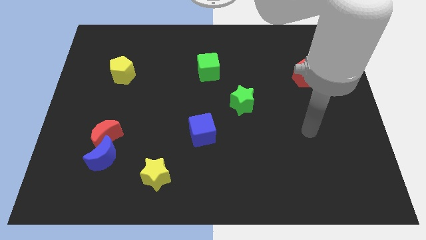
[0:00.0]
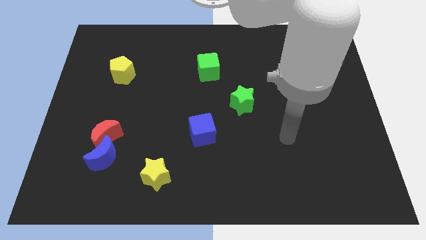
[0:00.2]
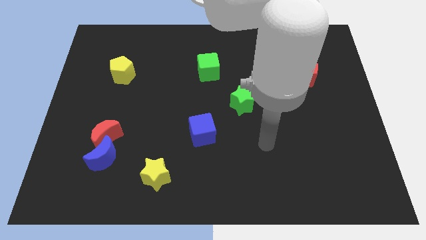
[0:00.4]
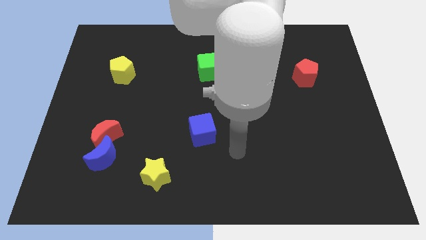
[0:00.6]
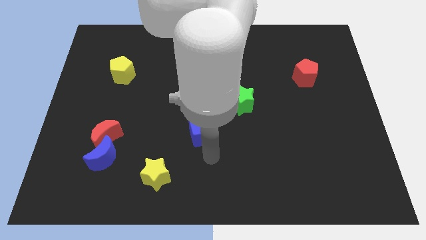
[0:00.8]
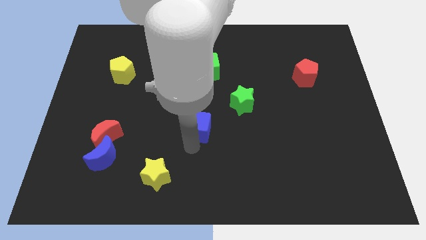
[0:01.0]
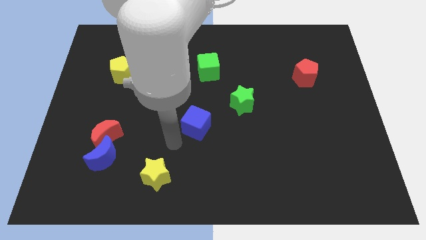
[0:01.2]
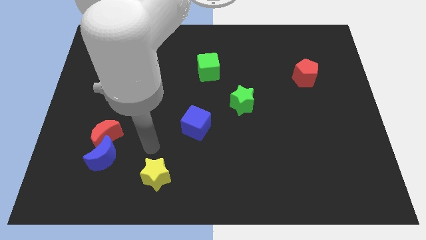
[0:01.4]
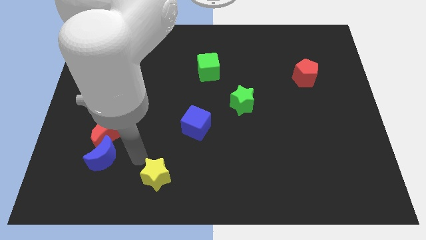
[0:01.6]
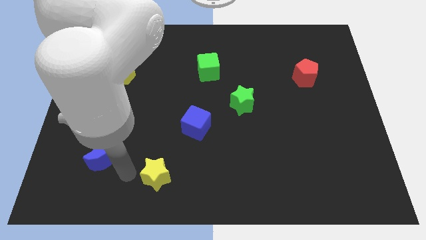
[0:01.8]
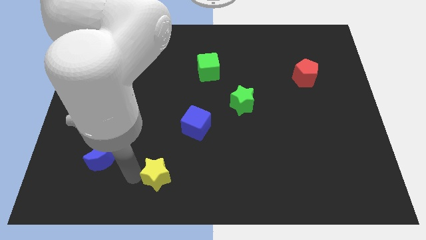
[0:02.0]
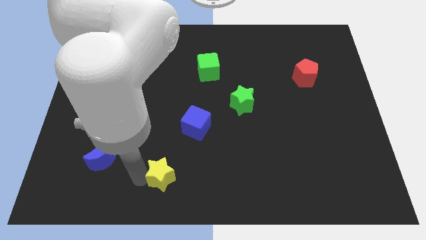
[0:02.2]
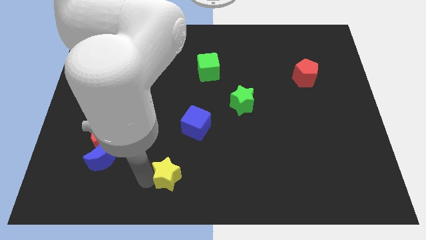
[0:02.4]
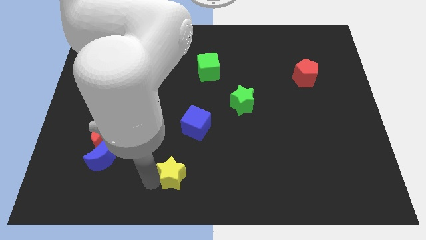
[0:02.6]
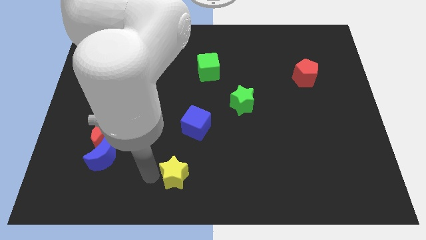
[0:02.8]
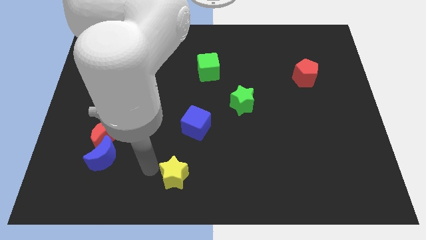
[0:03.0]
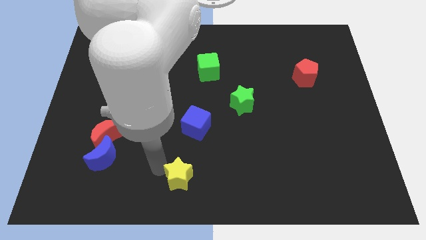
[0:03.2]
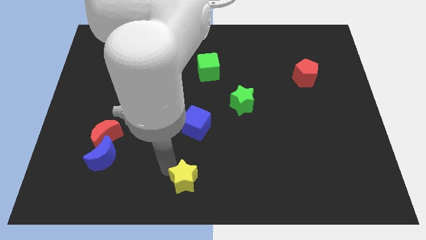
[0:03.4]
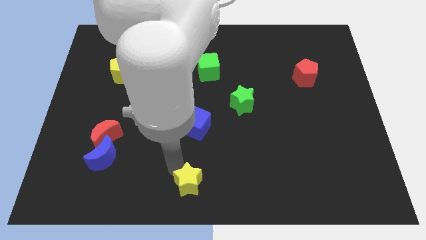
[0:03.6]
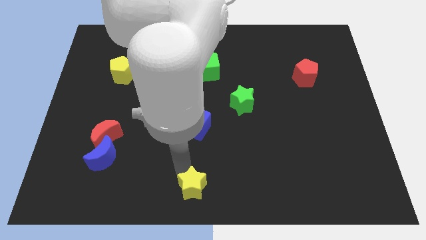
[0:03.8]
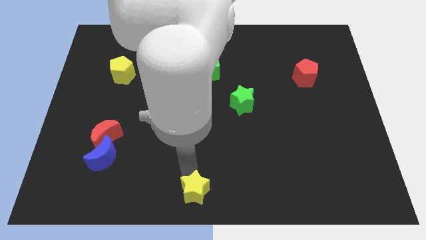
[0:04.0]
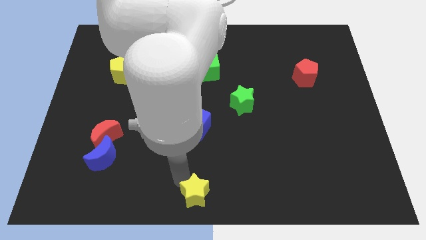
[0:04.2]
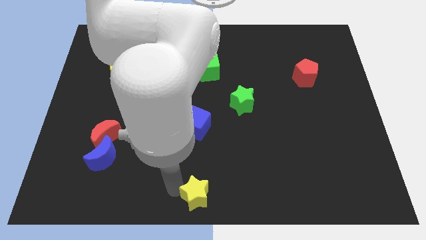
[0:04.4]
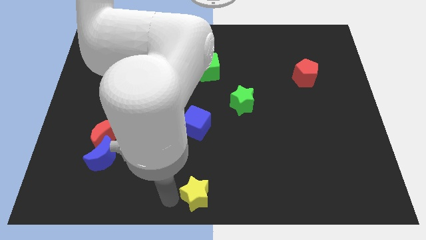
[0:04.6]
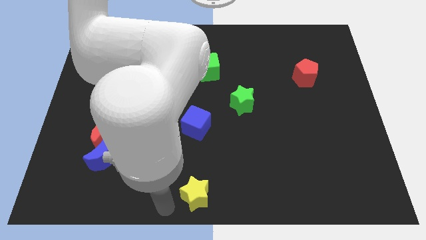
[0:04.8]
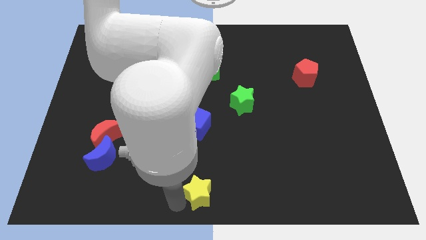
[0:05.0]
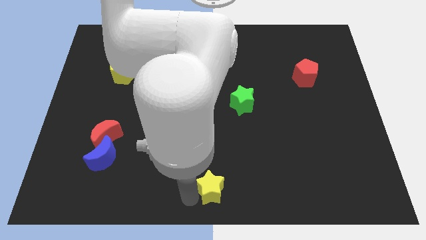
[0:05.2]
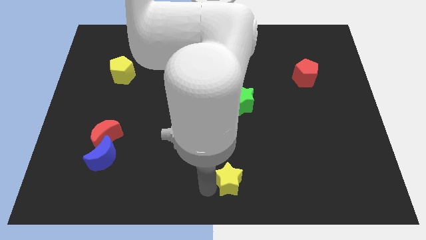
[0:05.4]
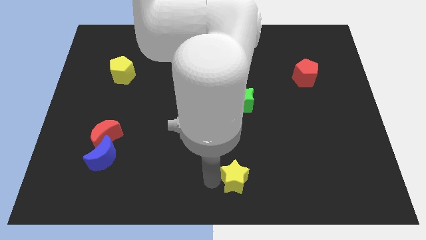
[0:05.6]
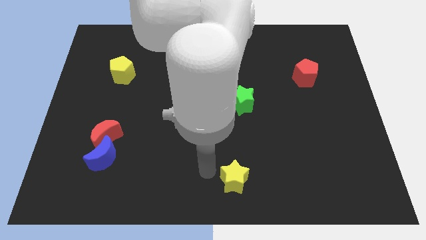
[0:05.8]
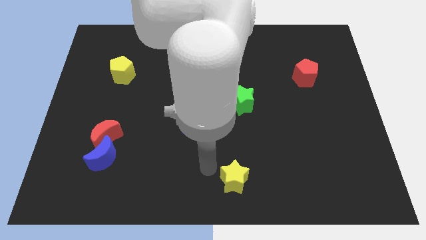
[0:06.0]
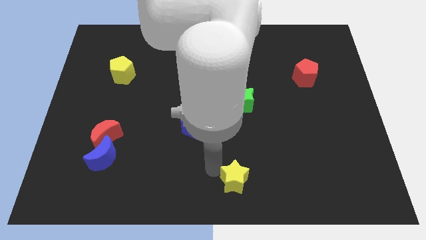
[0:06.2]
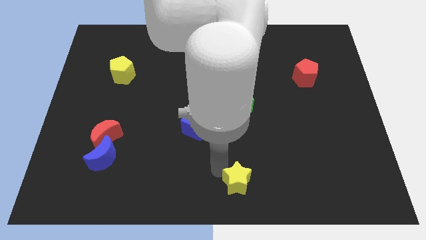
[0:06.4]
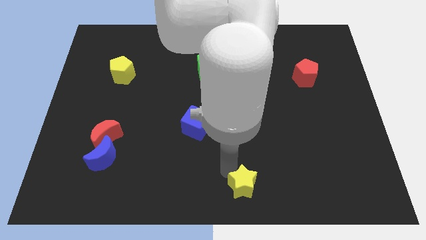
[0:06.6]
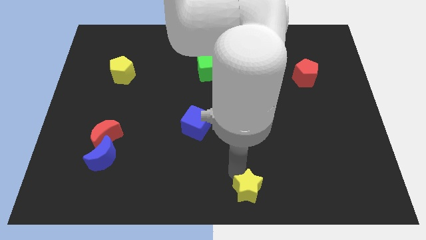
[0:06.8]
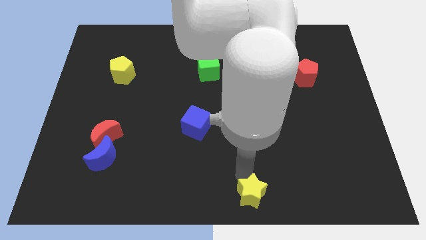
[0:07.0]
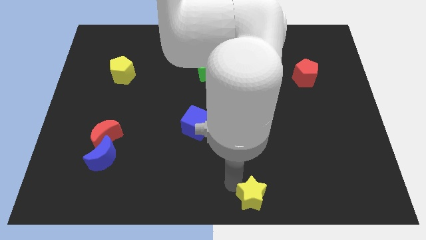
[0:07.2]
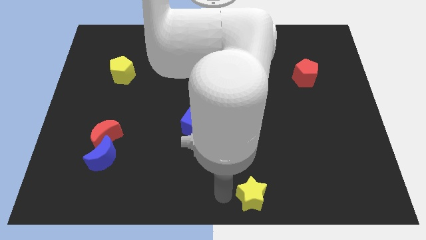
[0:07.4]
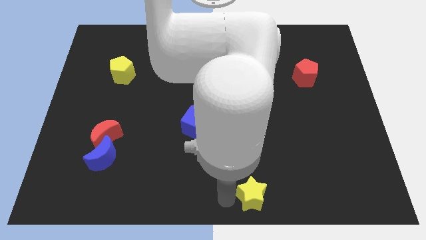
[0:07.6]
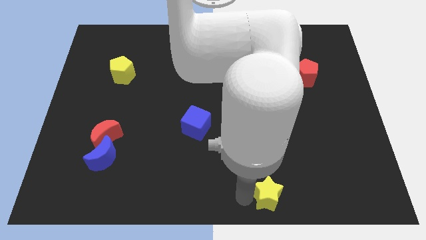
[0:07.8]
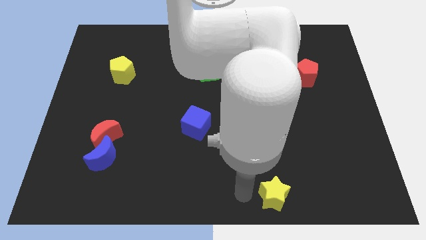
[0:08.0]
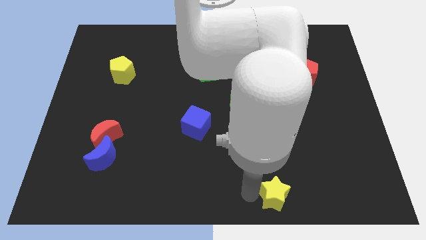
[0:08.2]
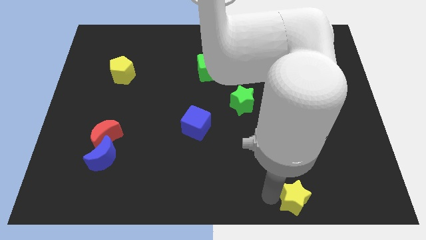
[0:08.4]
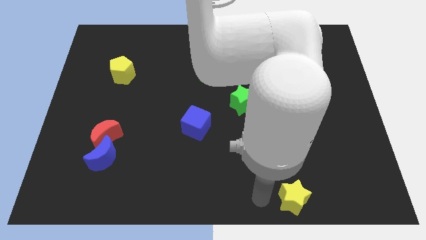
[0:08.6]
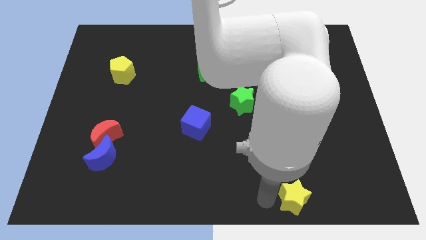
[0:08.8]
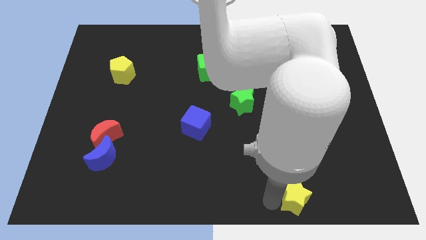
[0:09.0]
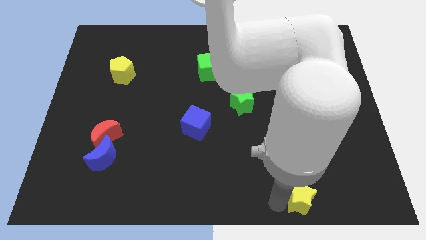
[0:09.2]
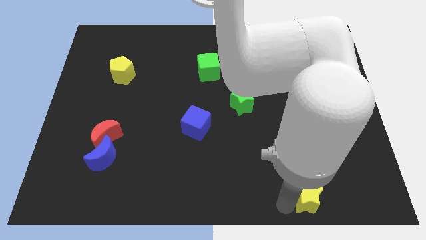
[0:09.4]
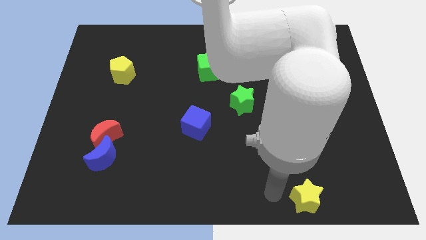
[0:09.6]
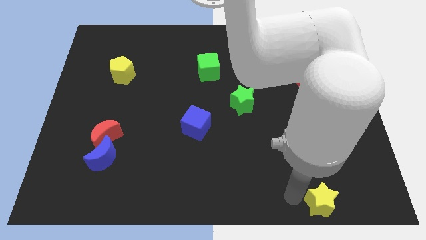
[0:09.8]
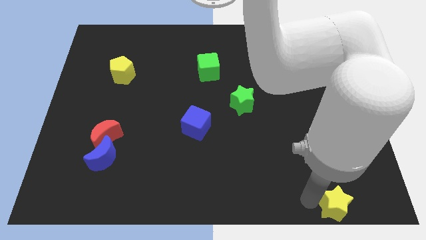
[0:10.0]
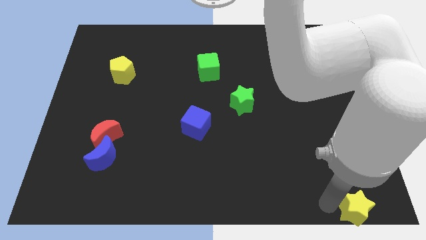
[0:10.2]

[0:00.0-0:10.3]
push the yellow star to the bottom right corner
